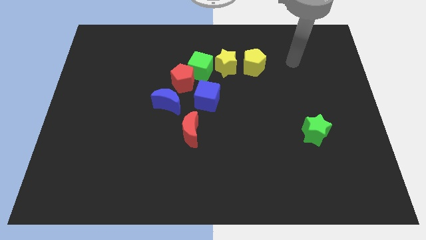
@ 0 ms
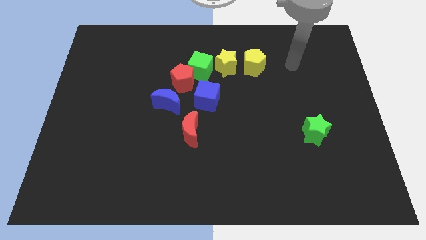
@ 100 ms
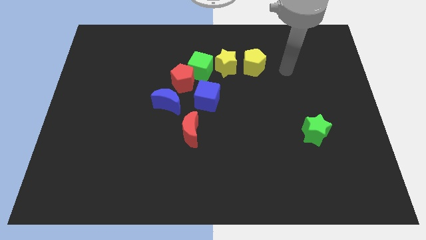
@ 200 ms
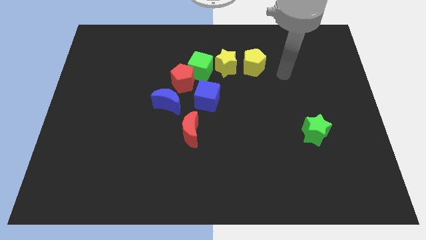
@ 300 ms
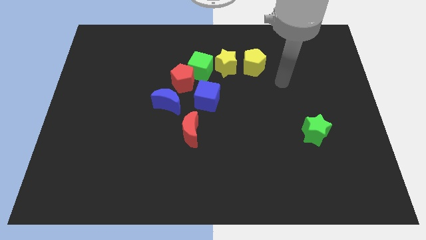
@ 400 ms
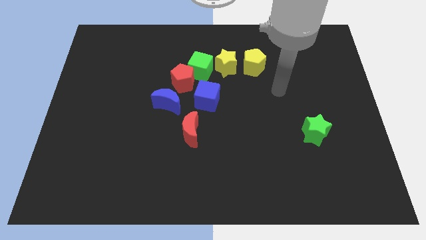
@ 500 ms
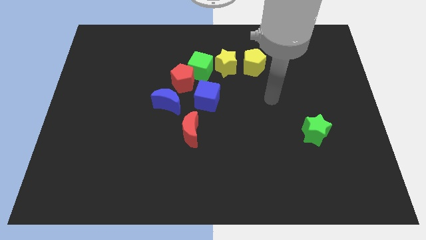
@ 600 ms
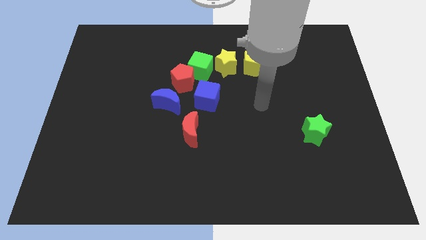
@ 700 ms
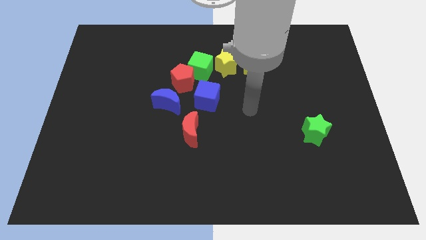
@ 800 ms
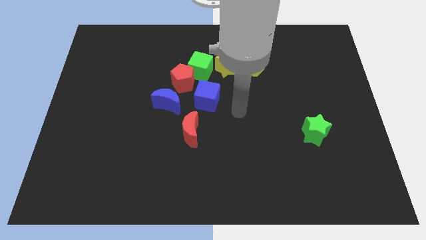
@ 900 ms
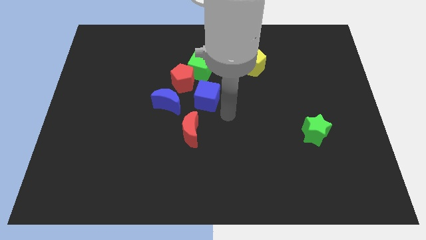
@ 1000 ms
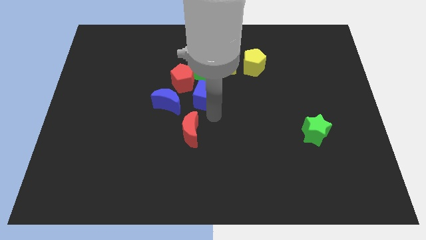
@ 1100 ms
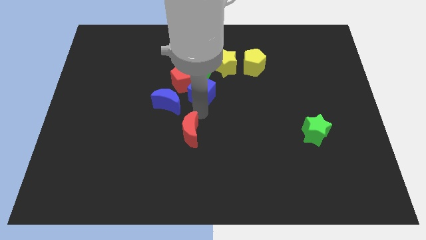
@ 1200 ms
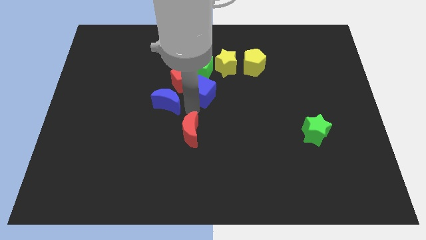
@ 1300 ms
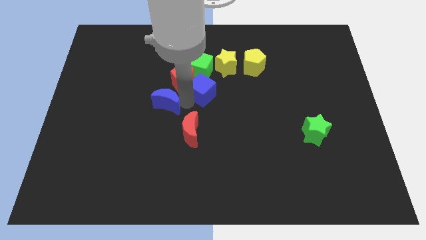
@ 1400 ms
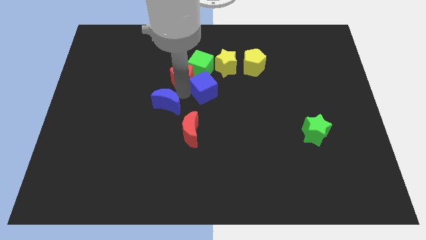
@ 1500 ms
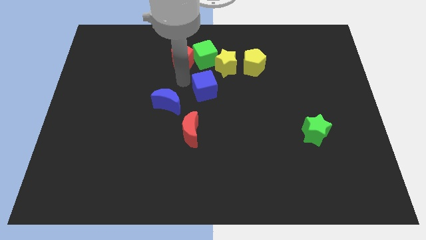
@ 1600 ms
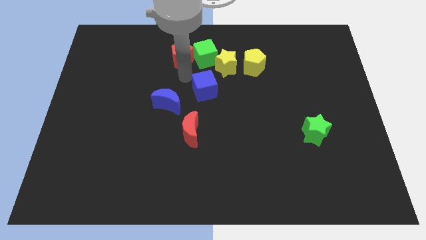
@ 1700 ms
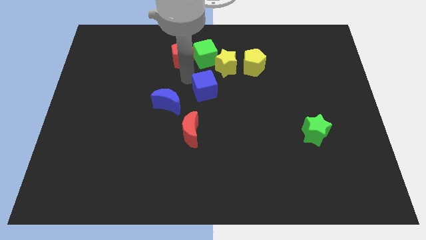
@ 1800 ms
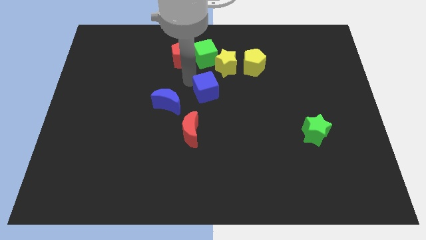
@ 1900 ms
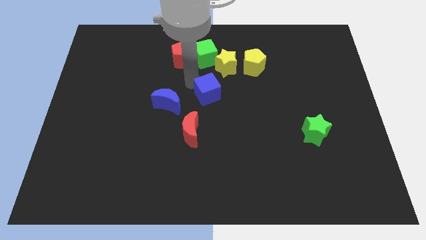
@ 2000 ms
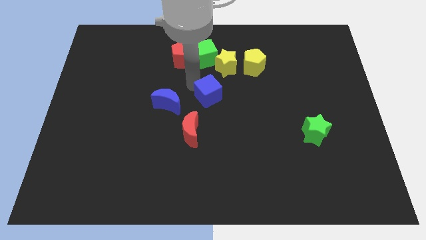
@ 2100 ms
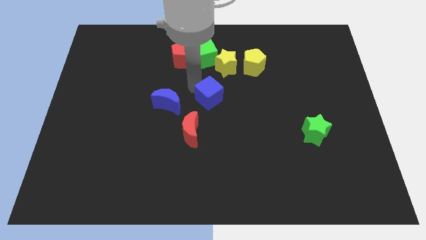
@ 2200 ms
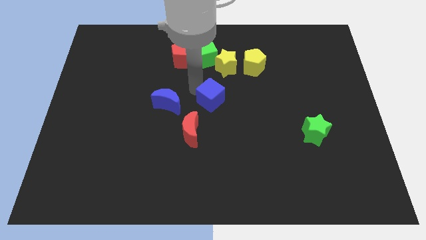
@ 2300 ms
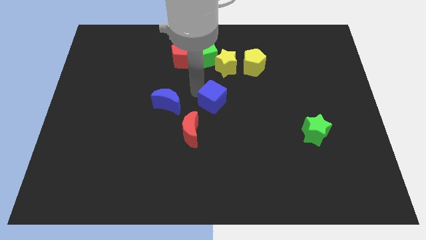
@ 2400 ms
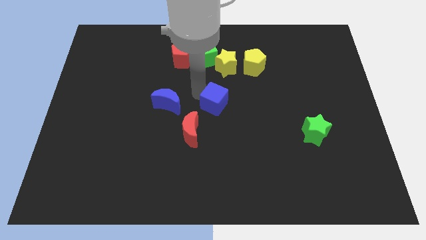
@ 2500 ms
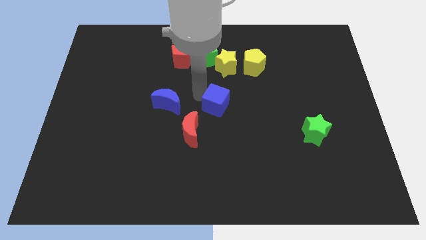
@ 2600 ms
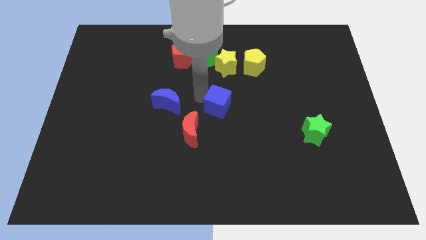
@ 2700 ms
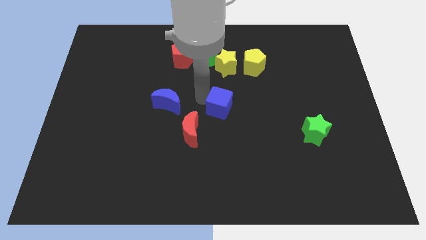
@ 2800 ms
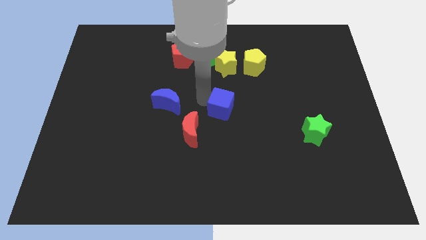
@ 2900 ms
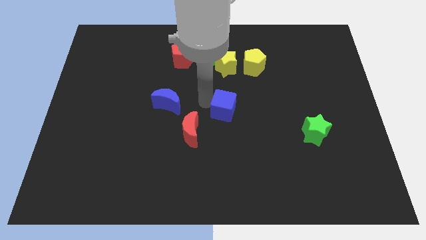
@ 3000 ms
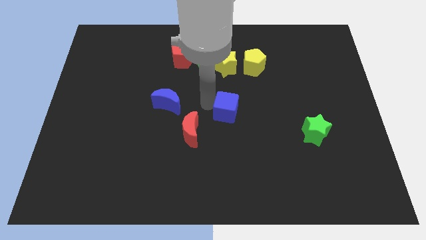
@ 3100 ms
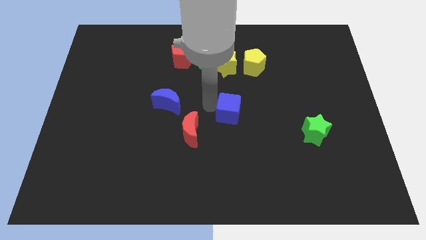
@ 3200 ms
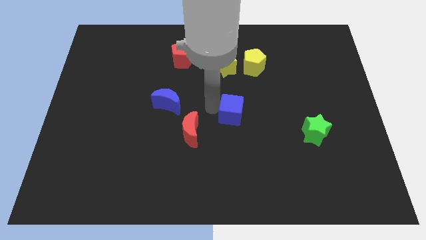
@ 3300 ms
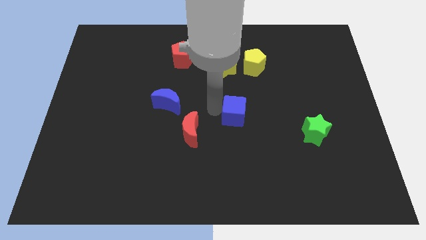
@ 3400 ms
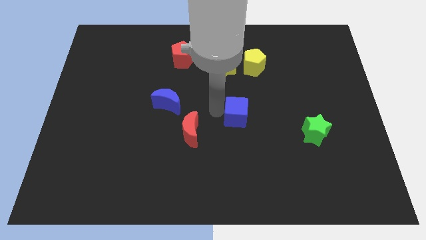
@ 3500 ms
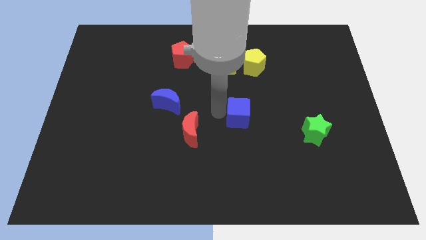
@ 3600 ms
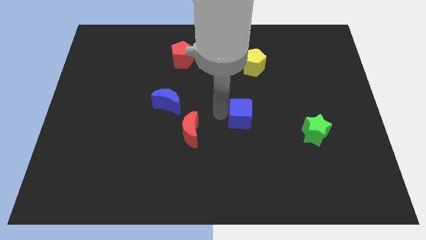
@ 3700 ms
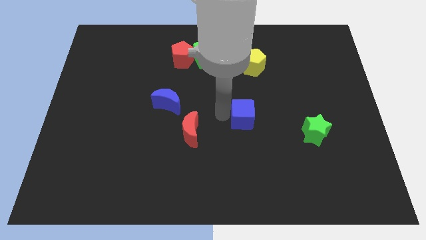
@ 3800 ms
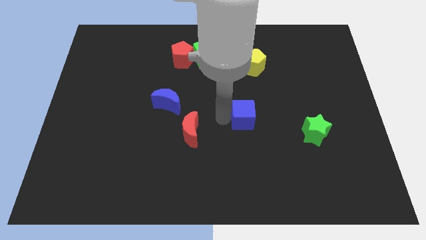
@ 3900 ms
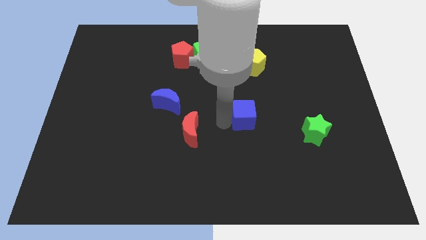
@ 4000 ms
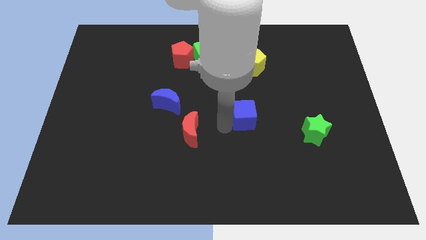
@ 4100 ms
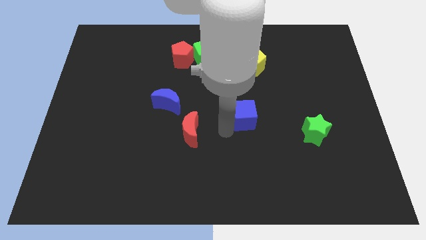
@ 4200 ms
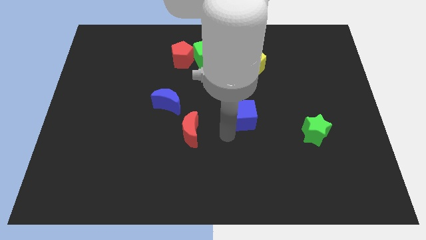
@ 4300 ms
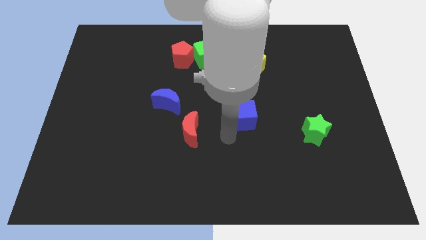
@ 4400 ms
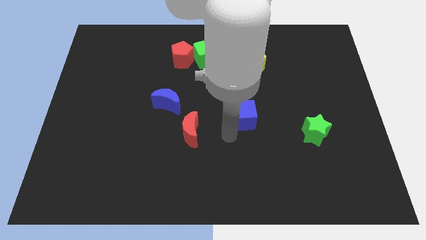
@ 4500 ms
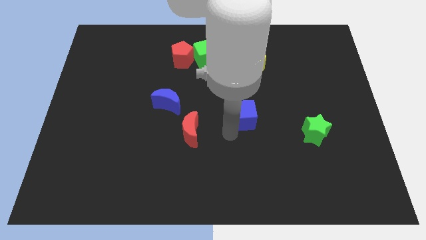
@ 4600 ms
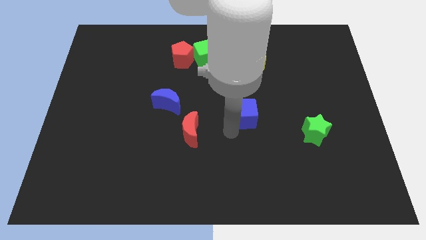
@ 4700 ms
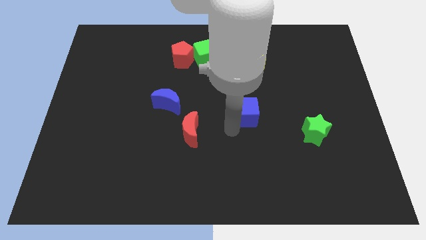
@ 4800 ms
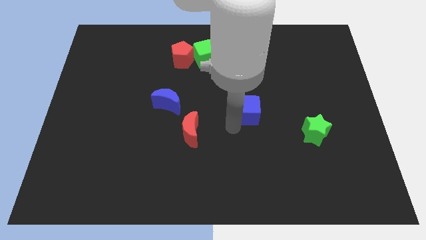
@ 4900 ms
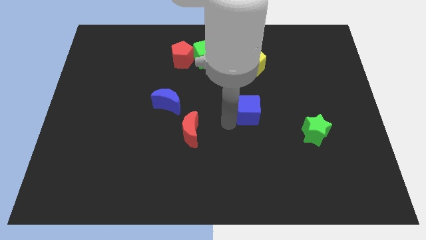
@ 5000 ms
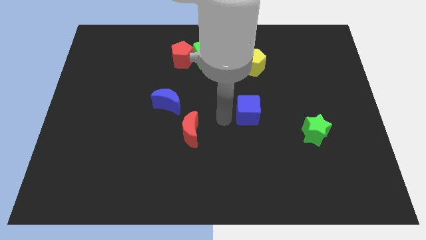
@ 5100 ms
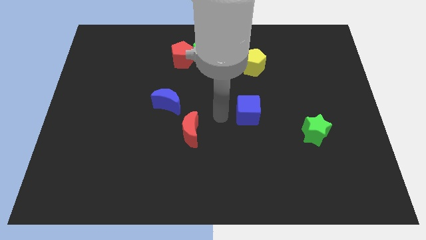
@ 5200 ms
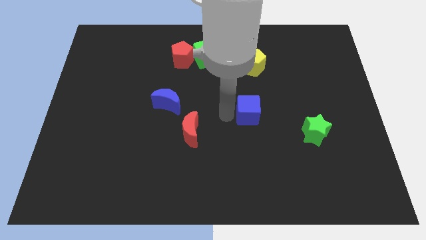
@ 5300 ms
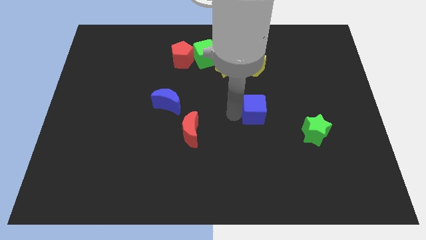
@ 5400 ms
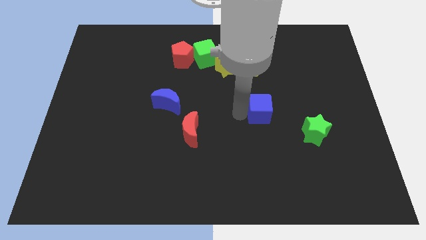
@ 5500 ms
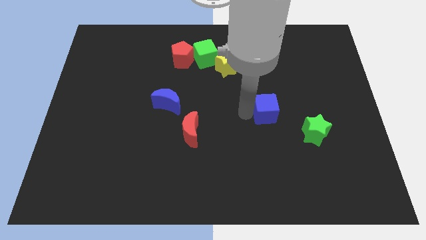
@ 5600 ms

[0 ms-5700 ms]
move the blue cube diagonally up and to the left of the green star

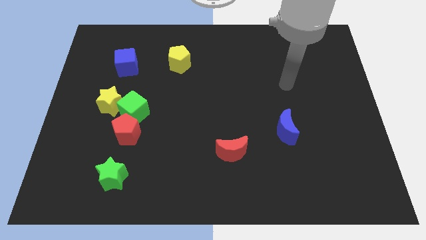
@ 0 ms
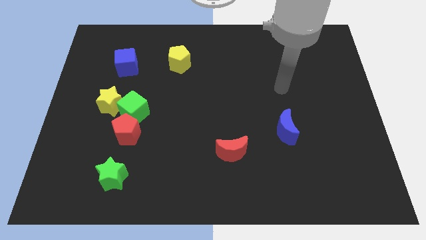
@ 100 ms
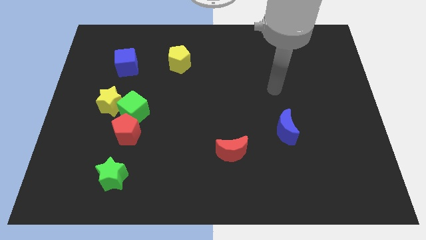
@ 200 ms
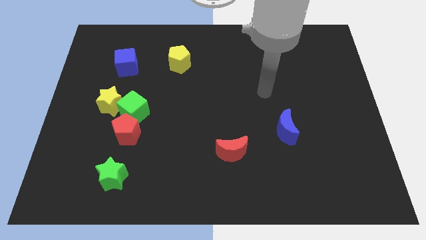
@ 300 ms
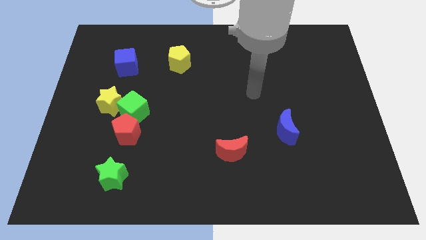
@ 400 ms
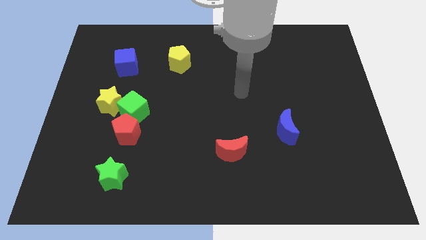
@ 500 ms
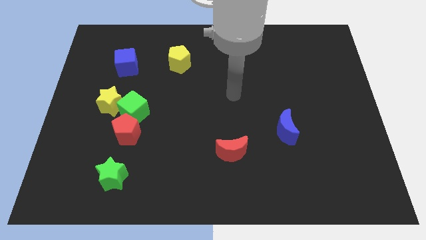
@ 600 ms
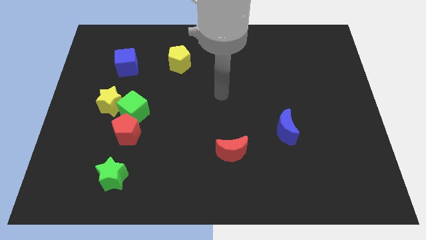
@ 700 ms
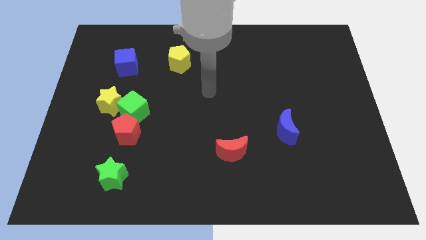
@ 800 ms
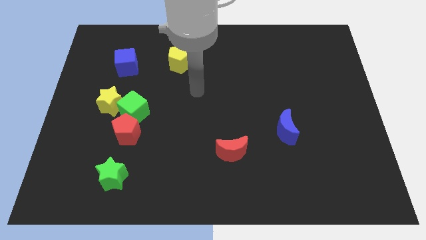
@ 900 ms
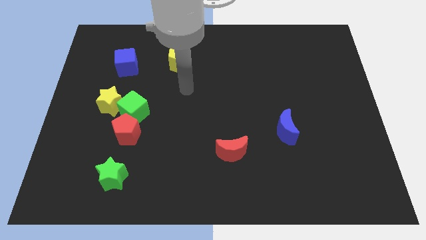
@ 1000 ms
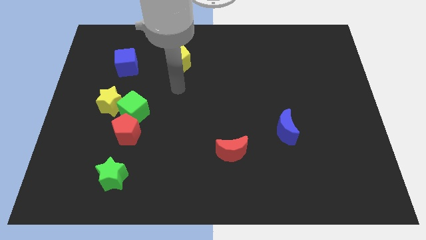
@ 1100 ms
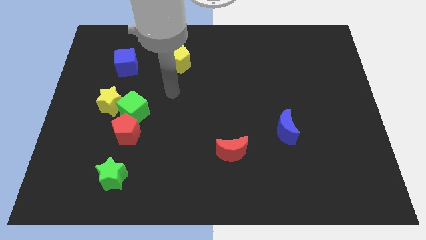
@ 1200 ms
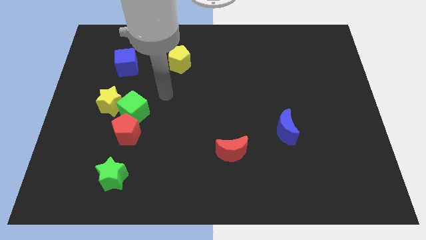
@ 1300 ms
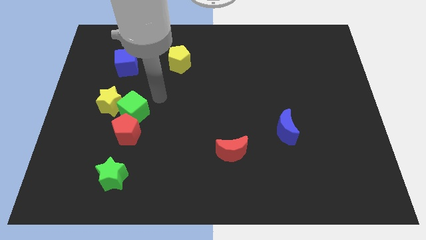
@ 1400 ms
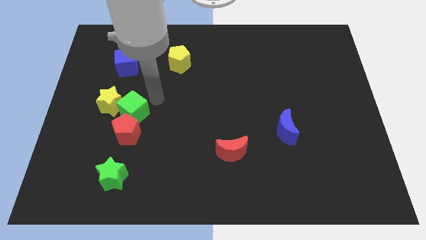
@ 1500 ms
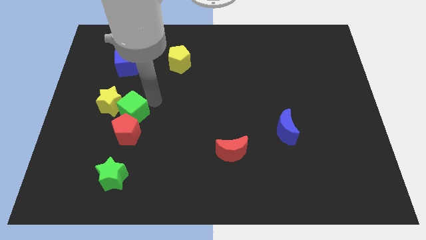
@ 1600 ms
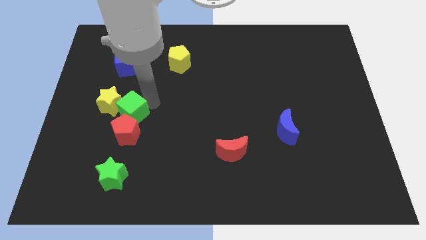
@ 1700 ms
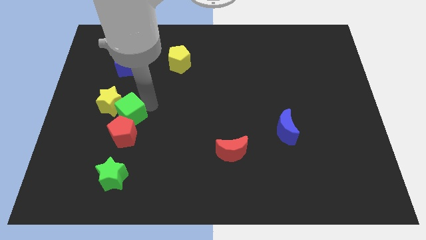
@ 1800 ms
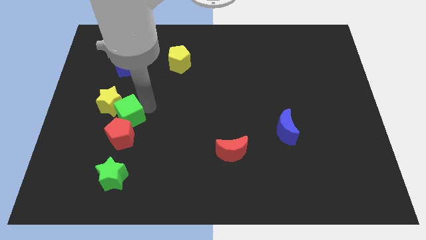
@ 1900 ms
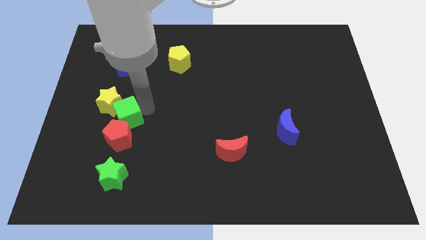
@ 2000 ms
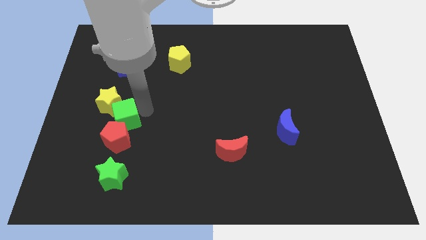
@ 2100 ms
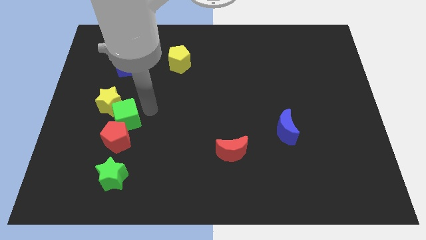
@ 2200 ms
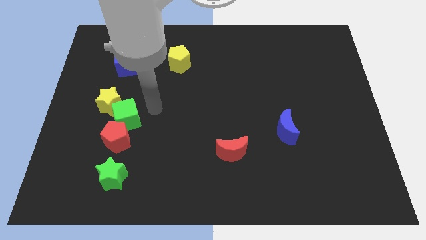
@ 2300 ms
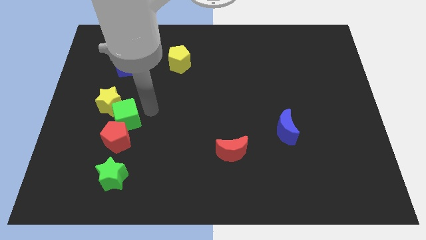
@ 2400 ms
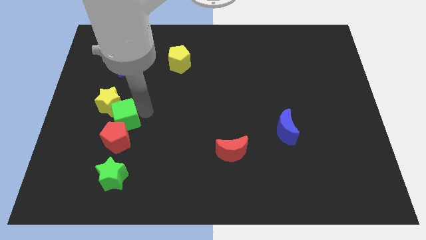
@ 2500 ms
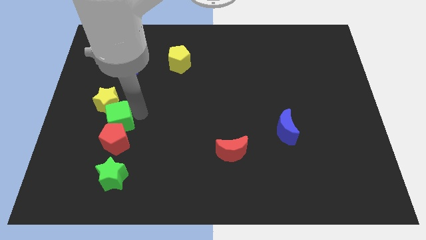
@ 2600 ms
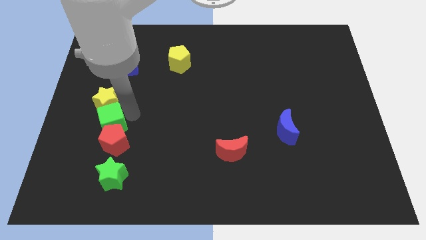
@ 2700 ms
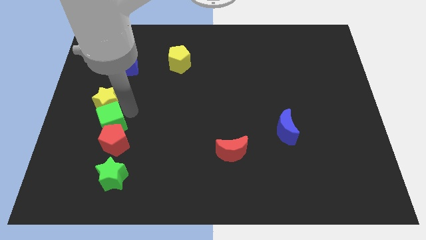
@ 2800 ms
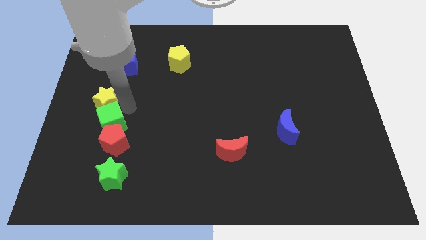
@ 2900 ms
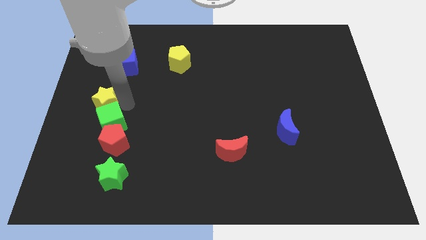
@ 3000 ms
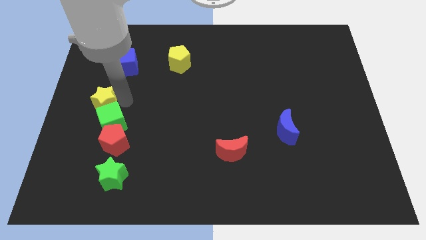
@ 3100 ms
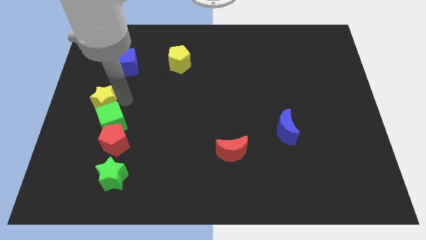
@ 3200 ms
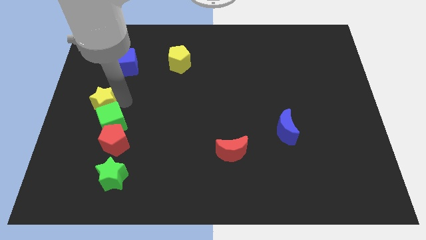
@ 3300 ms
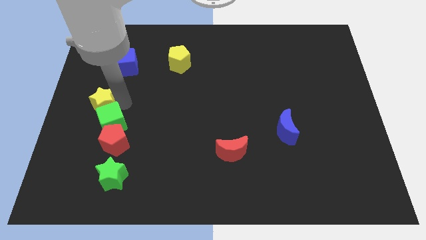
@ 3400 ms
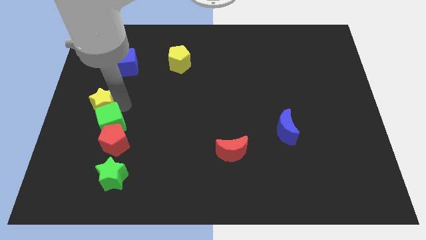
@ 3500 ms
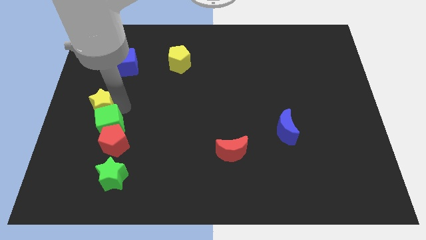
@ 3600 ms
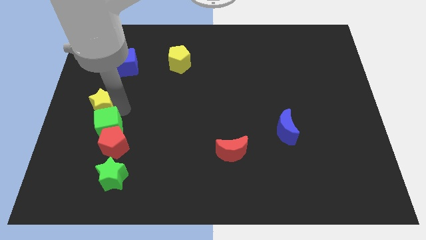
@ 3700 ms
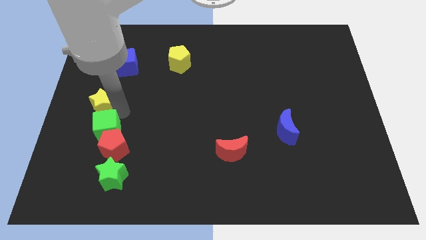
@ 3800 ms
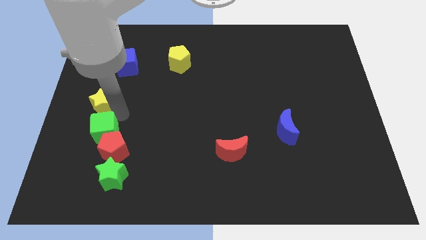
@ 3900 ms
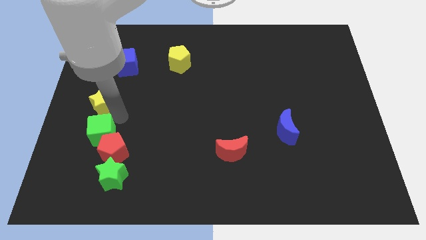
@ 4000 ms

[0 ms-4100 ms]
put the green cube diagonally up and to the left of the green star
